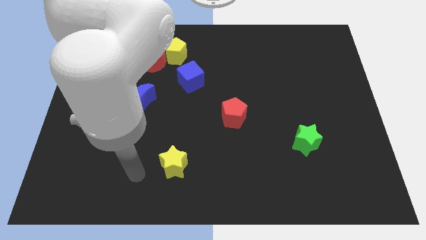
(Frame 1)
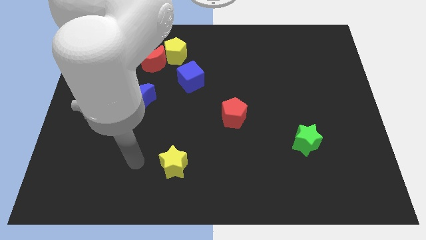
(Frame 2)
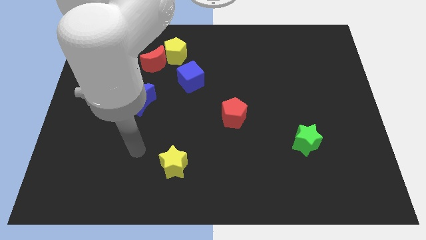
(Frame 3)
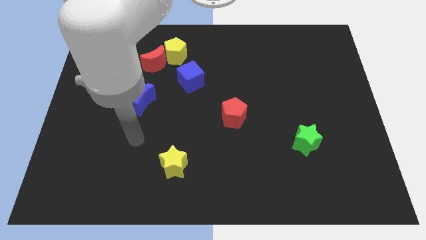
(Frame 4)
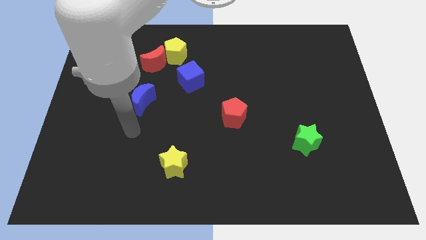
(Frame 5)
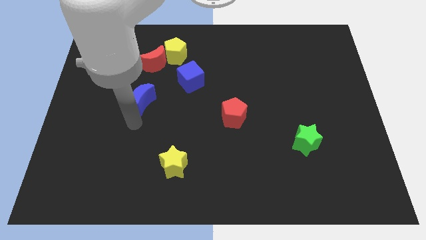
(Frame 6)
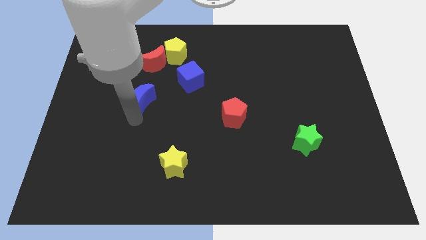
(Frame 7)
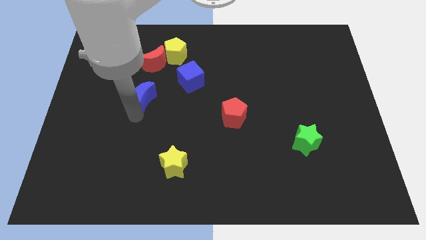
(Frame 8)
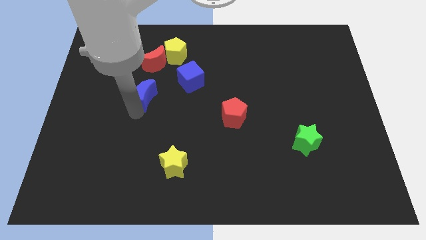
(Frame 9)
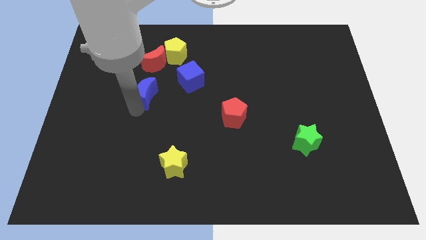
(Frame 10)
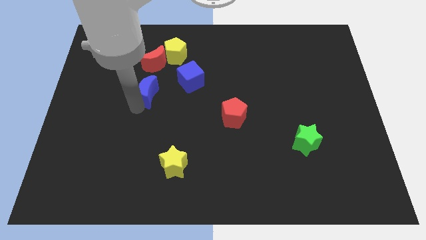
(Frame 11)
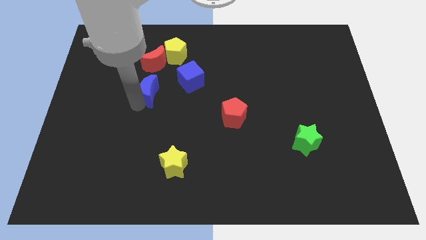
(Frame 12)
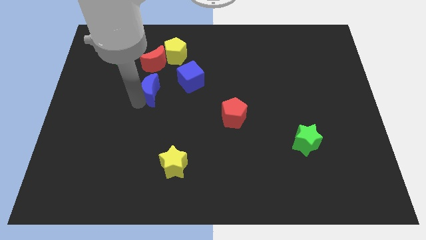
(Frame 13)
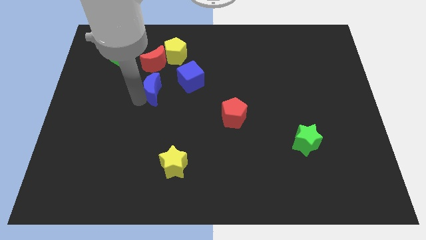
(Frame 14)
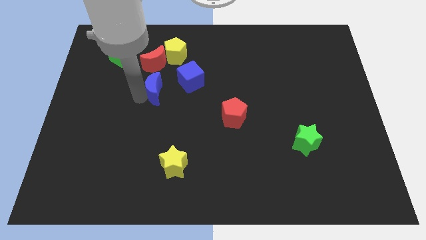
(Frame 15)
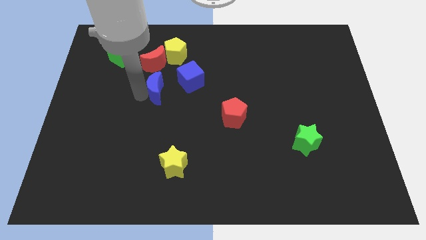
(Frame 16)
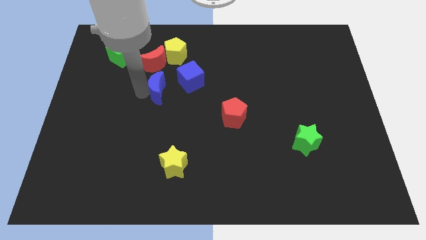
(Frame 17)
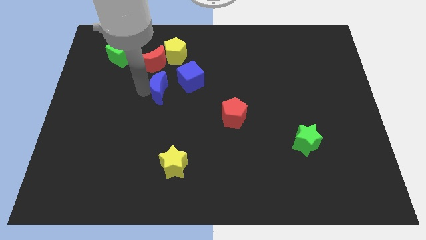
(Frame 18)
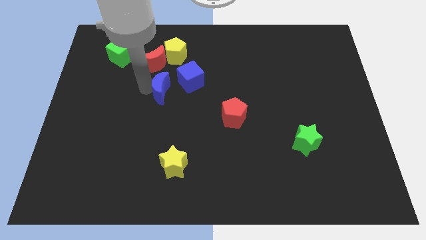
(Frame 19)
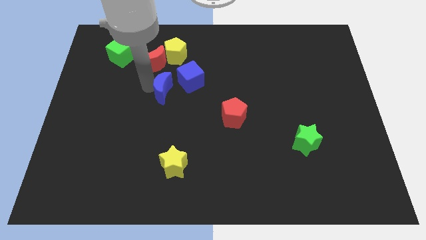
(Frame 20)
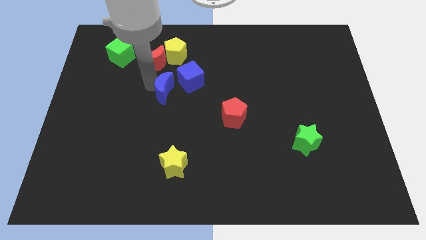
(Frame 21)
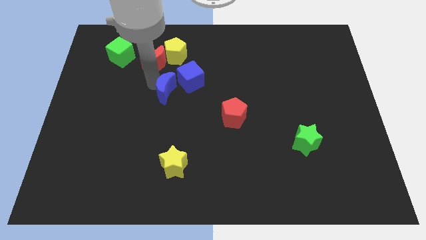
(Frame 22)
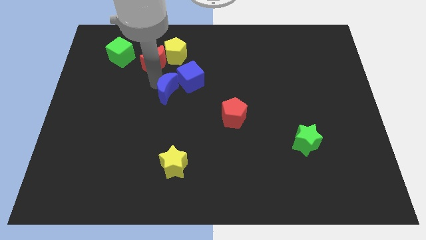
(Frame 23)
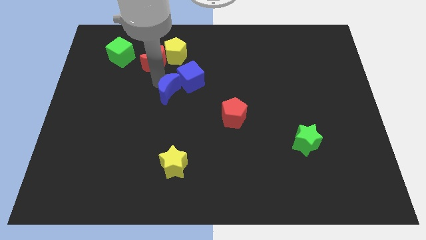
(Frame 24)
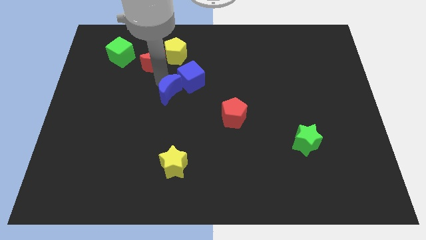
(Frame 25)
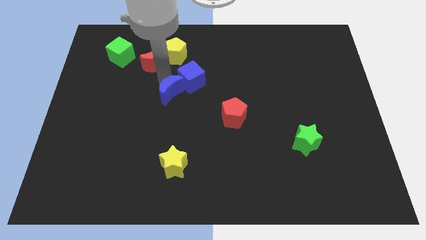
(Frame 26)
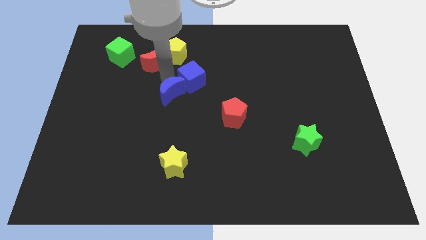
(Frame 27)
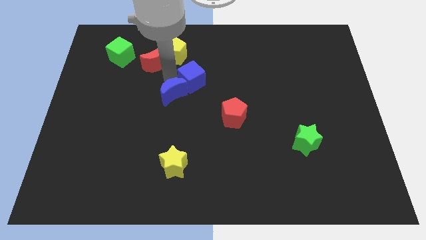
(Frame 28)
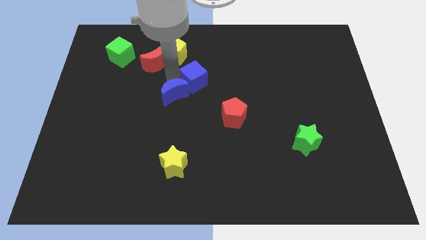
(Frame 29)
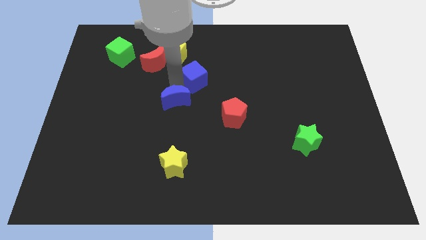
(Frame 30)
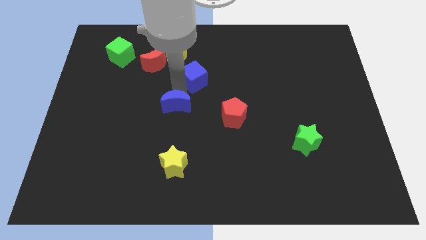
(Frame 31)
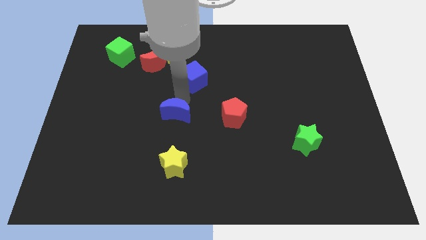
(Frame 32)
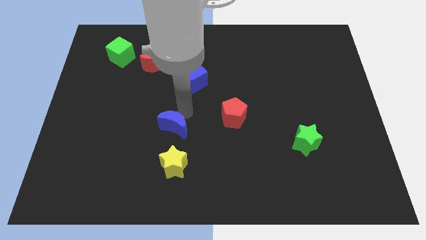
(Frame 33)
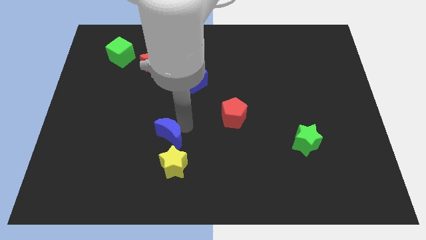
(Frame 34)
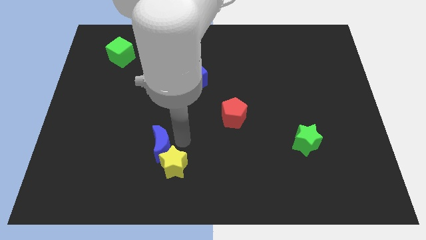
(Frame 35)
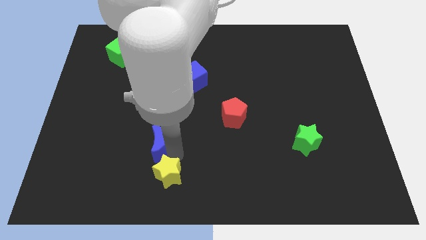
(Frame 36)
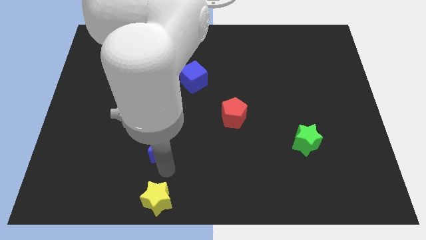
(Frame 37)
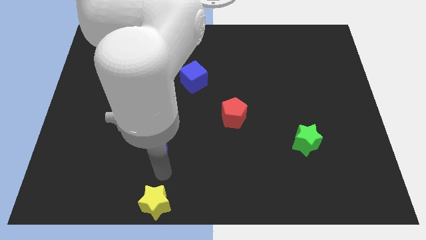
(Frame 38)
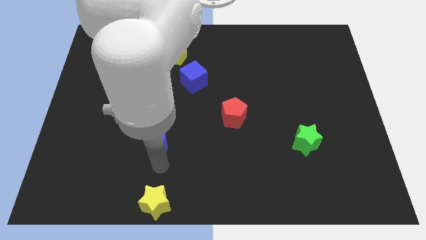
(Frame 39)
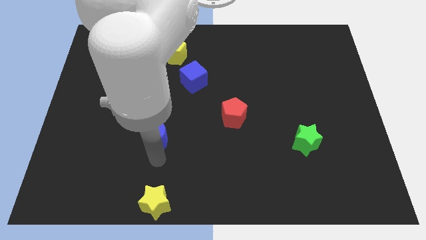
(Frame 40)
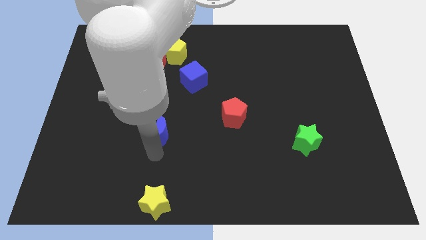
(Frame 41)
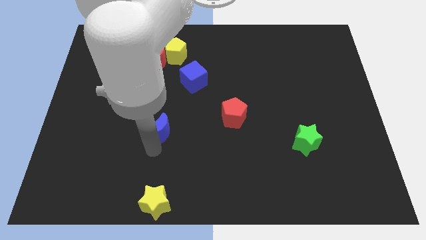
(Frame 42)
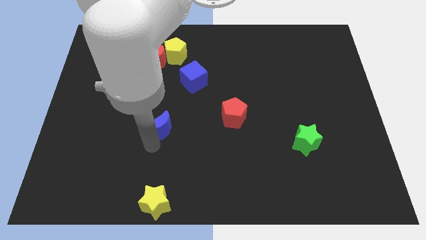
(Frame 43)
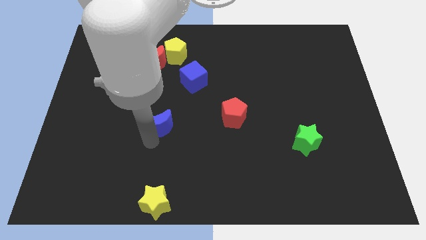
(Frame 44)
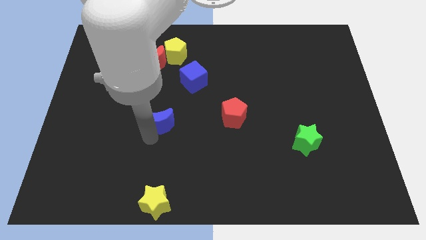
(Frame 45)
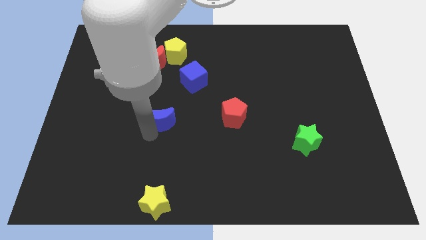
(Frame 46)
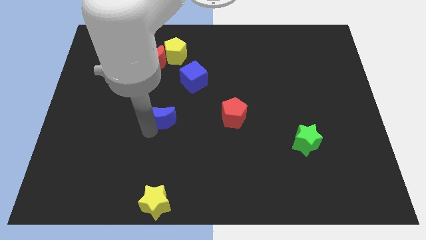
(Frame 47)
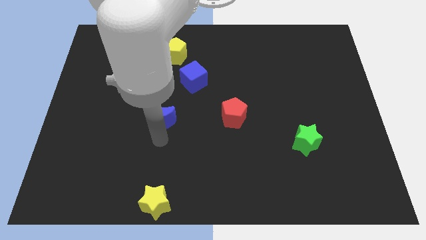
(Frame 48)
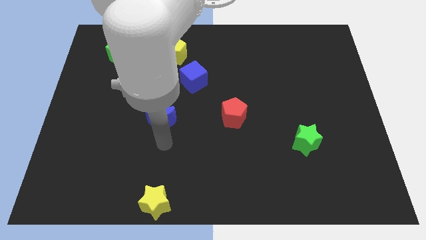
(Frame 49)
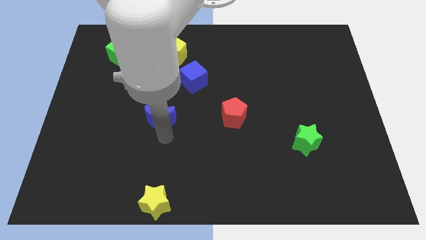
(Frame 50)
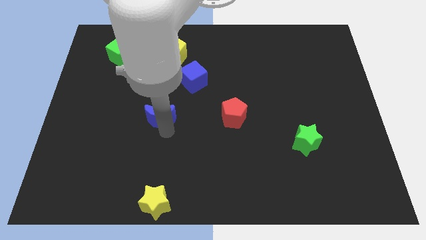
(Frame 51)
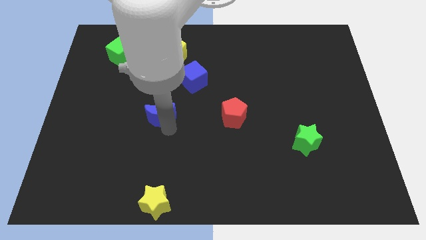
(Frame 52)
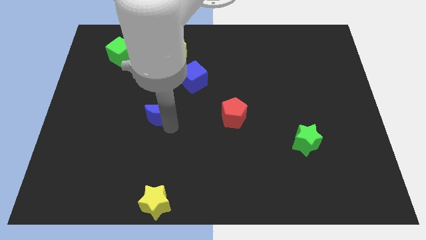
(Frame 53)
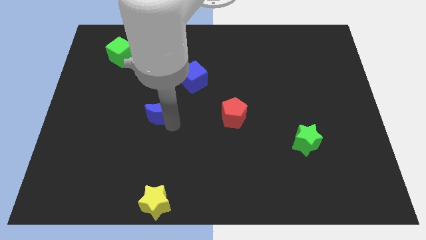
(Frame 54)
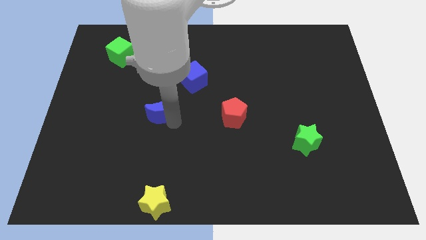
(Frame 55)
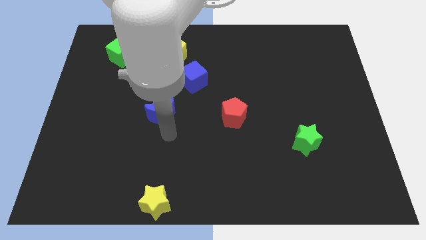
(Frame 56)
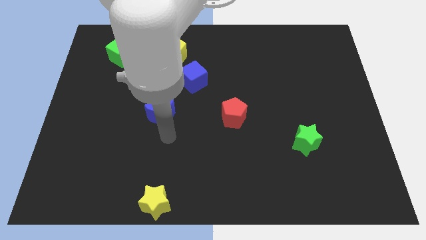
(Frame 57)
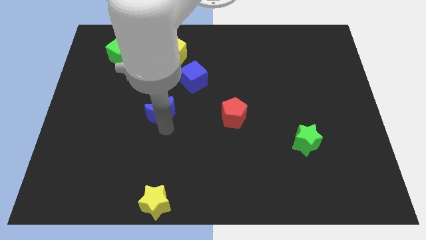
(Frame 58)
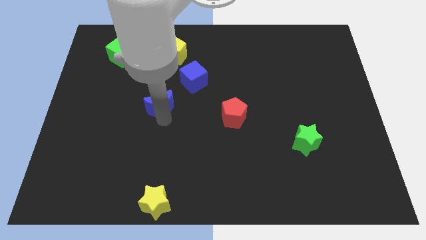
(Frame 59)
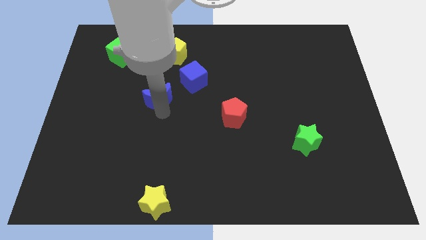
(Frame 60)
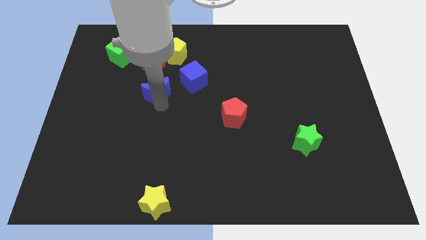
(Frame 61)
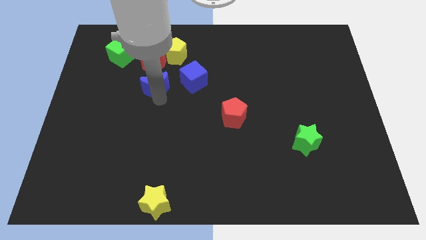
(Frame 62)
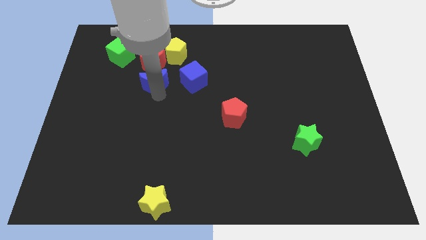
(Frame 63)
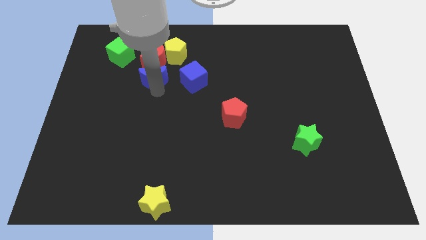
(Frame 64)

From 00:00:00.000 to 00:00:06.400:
move the blue moon next to the red moon

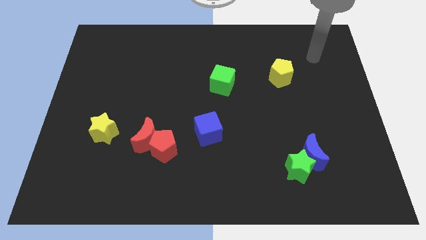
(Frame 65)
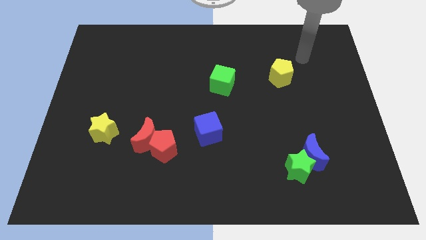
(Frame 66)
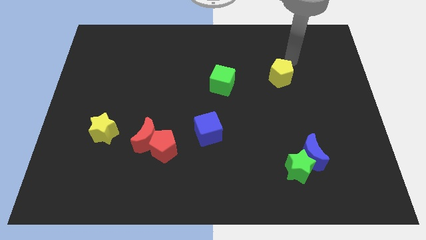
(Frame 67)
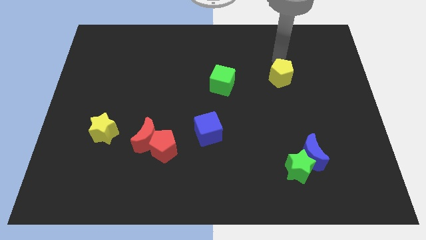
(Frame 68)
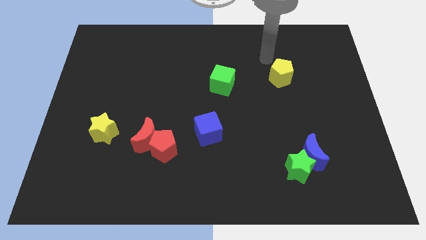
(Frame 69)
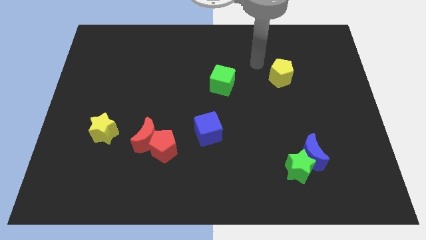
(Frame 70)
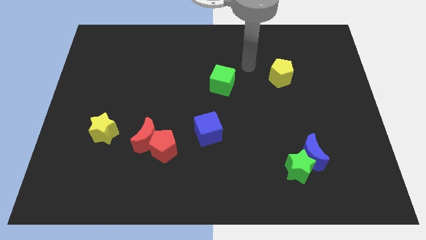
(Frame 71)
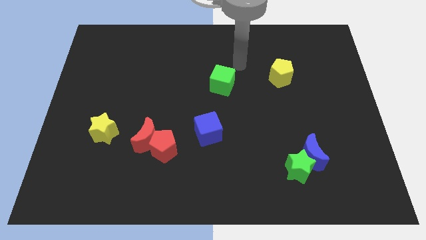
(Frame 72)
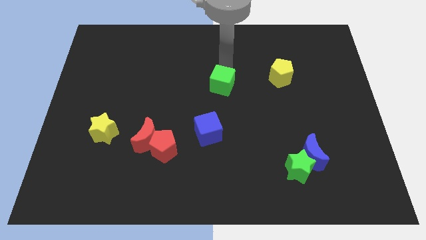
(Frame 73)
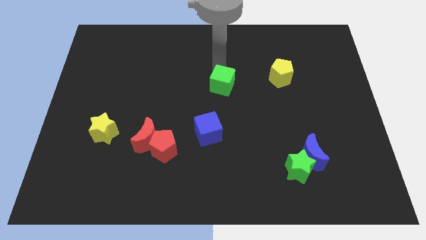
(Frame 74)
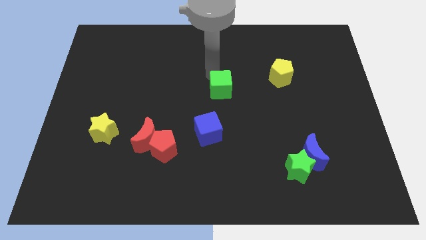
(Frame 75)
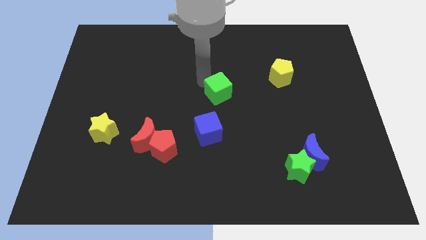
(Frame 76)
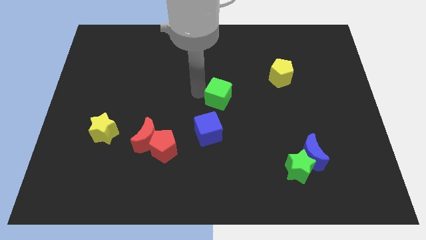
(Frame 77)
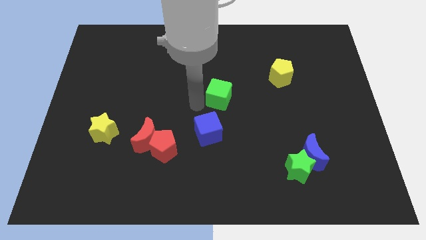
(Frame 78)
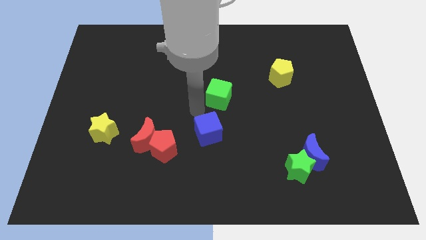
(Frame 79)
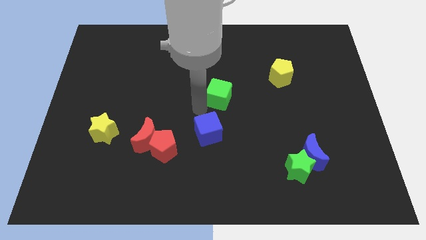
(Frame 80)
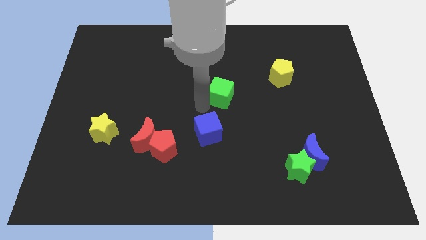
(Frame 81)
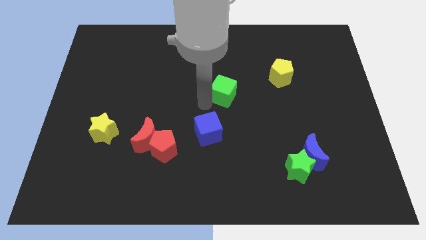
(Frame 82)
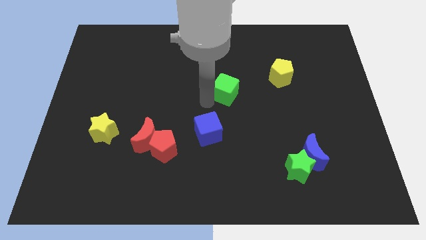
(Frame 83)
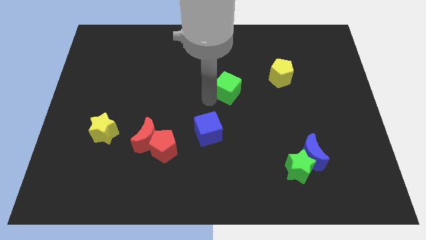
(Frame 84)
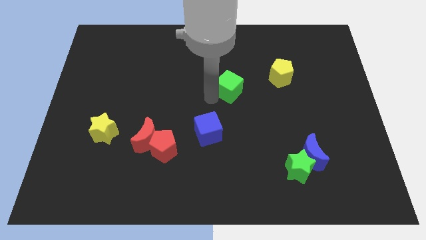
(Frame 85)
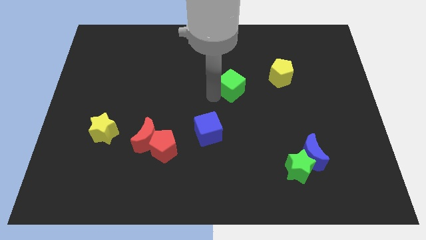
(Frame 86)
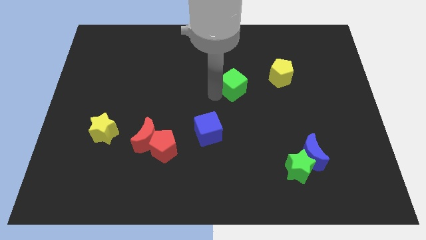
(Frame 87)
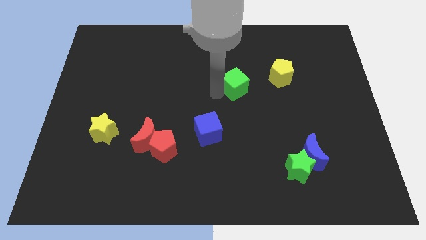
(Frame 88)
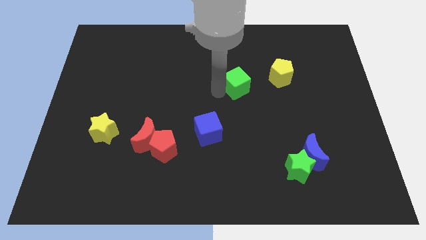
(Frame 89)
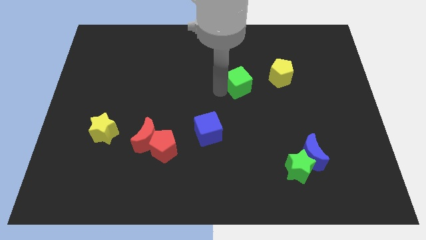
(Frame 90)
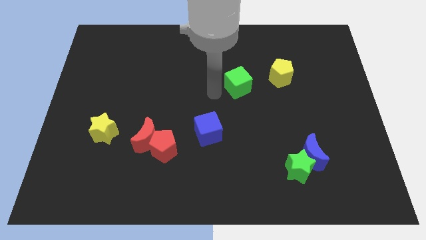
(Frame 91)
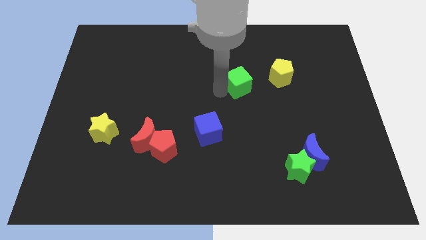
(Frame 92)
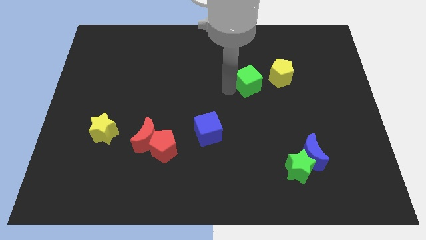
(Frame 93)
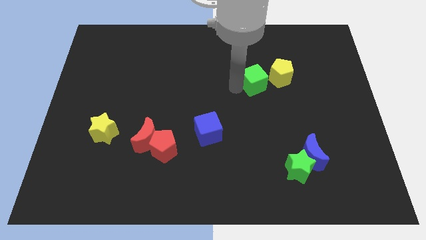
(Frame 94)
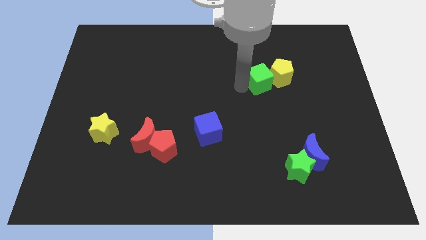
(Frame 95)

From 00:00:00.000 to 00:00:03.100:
slide the green cube towards the yellow pentagon
